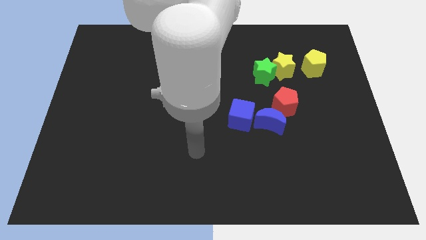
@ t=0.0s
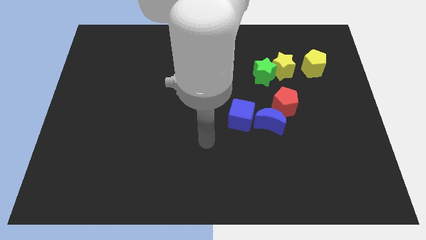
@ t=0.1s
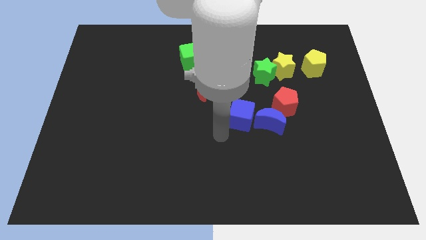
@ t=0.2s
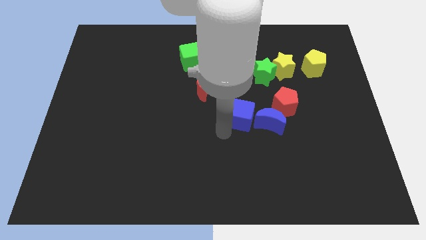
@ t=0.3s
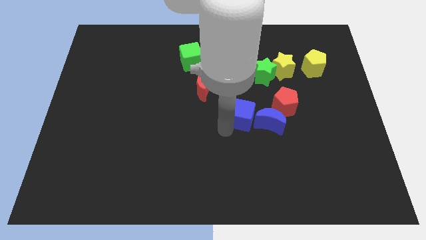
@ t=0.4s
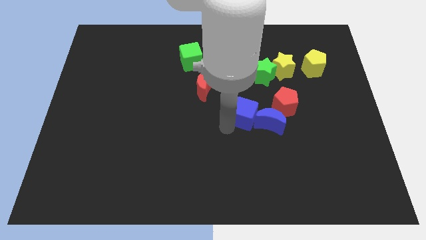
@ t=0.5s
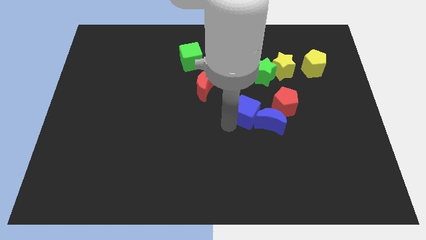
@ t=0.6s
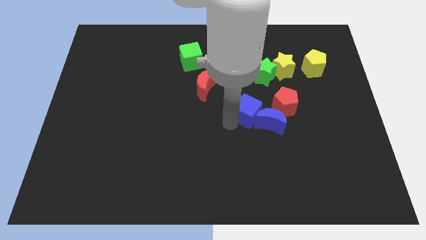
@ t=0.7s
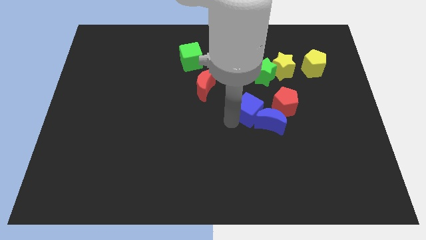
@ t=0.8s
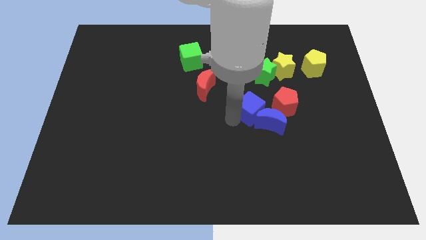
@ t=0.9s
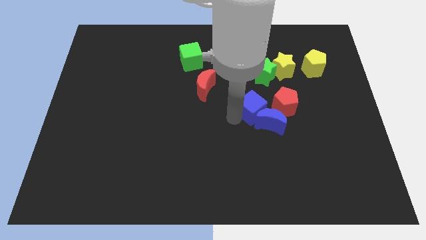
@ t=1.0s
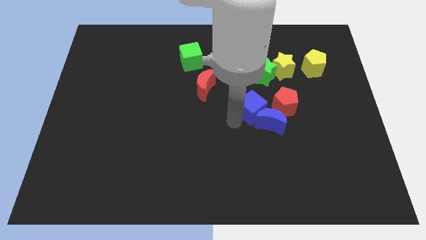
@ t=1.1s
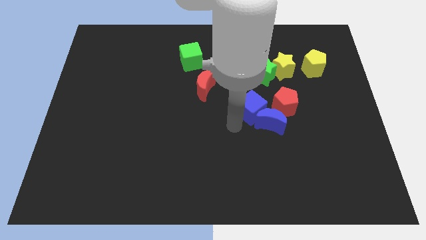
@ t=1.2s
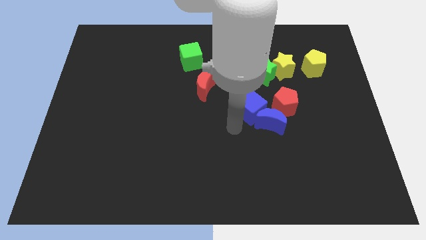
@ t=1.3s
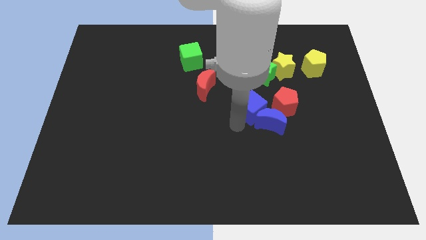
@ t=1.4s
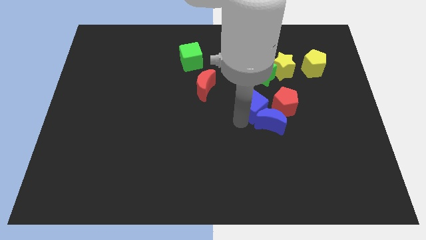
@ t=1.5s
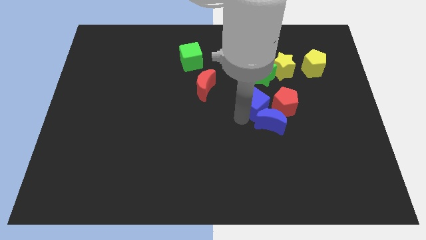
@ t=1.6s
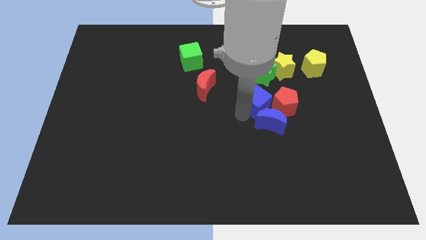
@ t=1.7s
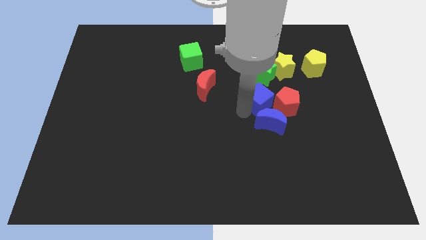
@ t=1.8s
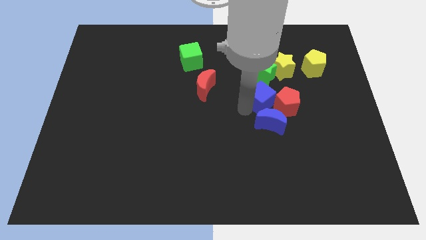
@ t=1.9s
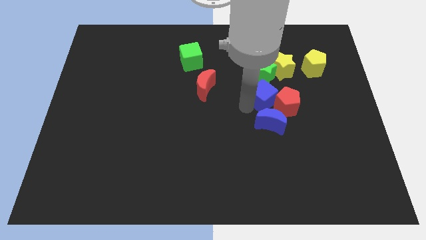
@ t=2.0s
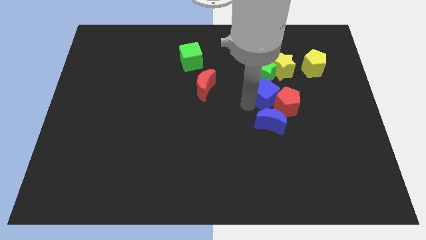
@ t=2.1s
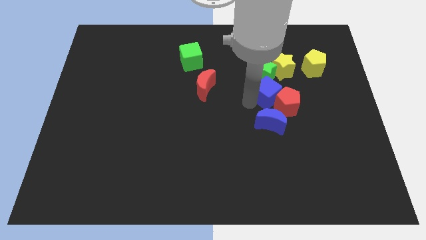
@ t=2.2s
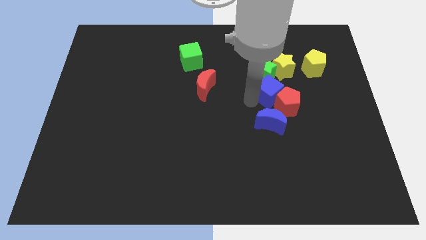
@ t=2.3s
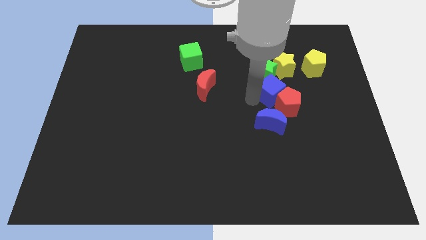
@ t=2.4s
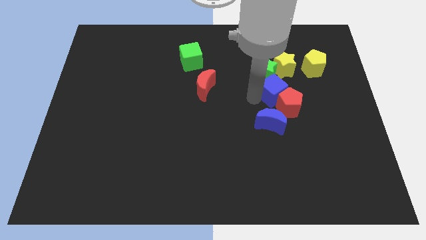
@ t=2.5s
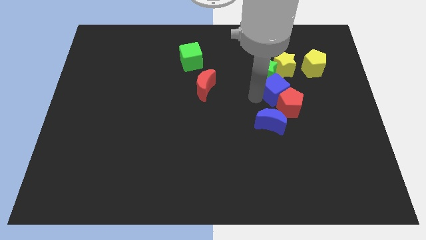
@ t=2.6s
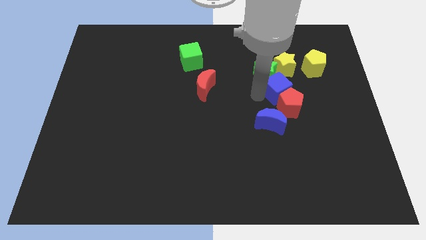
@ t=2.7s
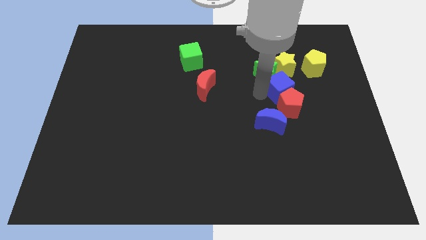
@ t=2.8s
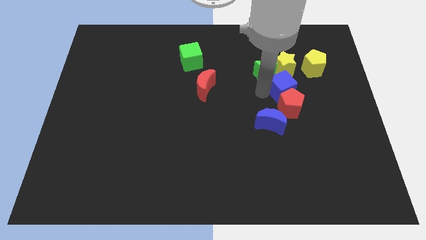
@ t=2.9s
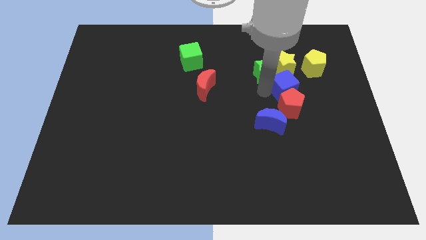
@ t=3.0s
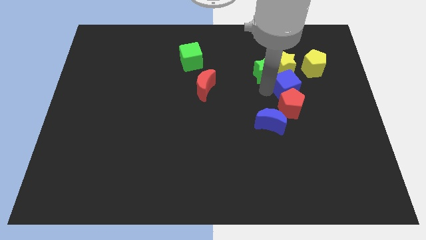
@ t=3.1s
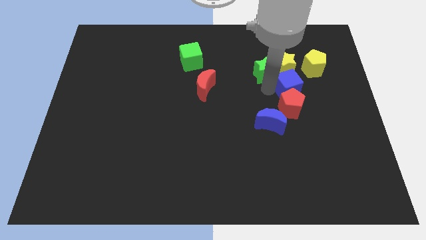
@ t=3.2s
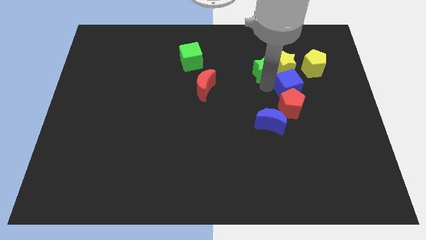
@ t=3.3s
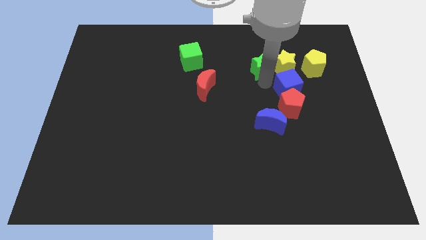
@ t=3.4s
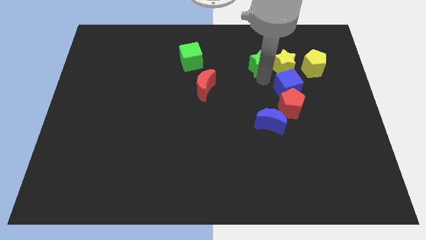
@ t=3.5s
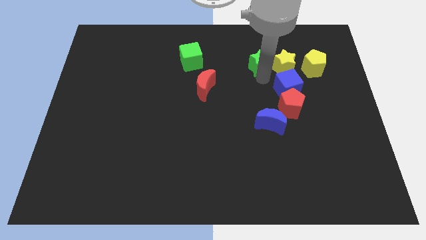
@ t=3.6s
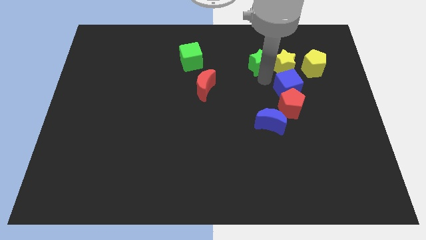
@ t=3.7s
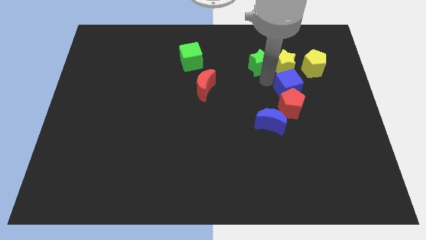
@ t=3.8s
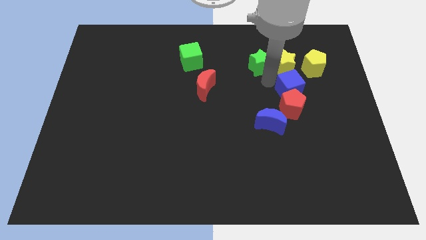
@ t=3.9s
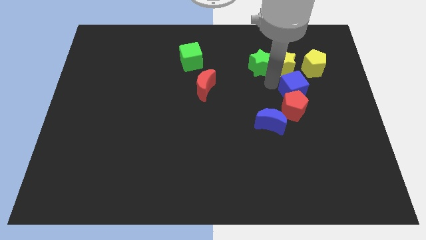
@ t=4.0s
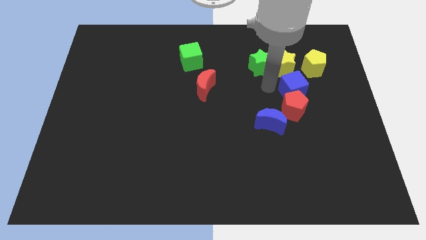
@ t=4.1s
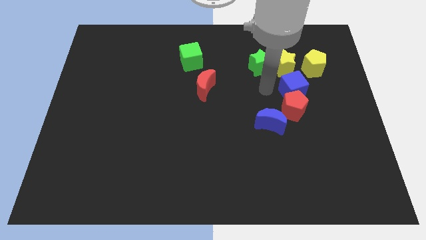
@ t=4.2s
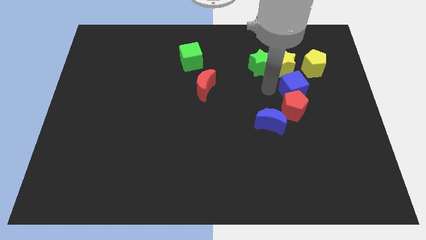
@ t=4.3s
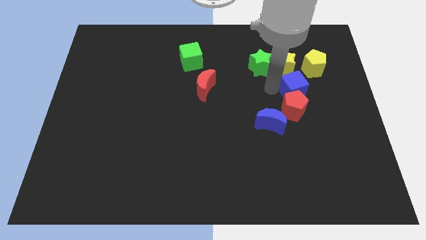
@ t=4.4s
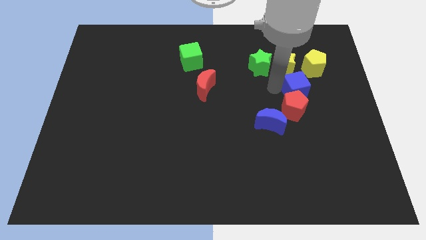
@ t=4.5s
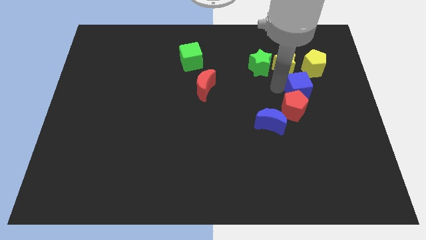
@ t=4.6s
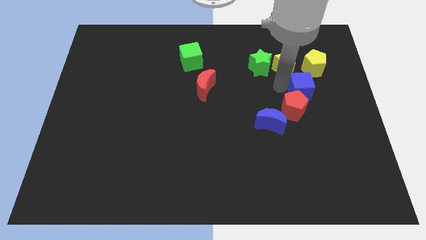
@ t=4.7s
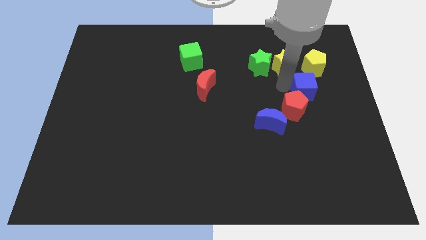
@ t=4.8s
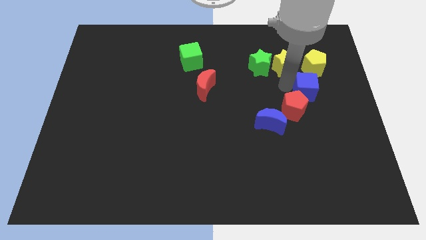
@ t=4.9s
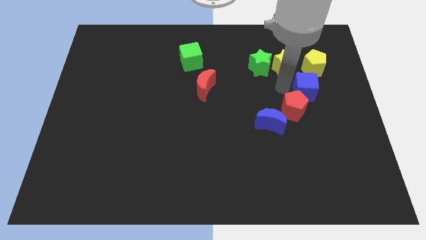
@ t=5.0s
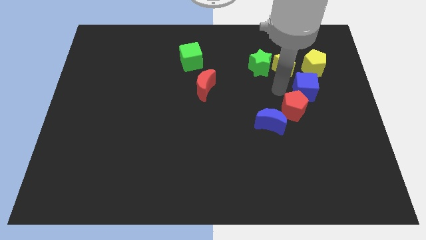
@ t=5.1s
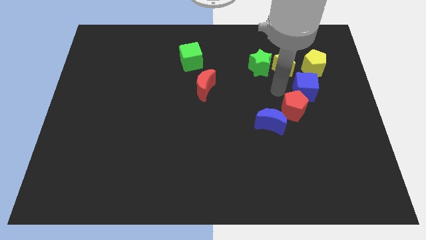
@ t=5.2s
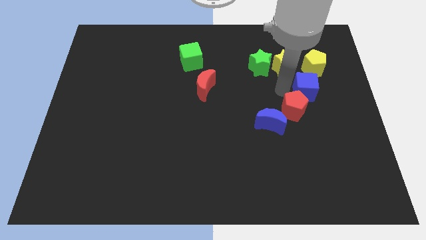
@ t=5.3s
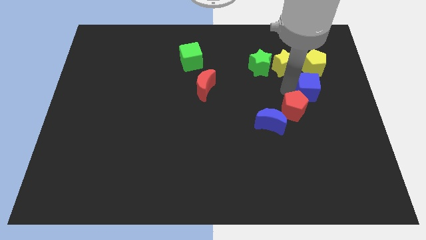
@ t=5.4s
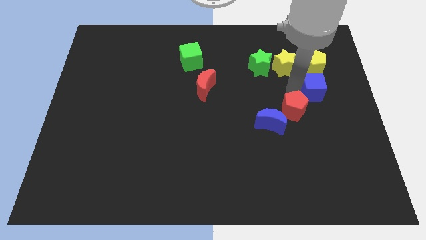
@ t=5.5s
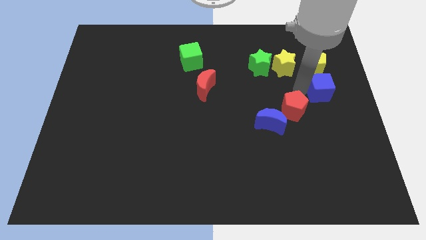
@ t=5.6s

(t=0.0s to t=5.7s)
slide the blue cube to the center right

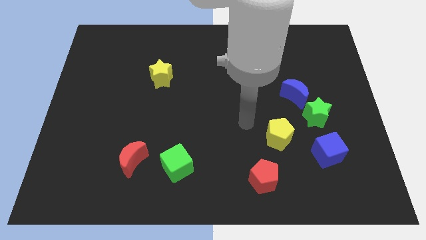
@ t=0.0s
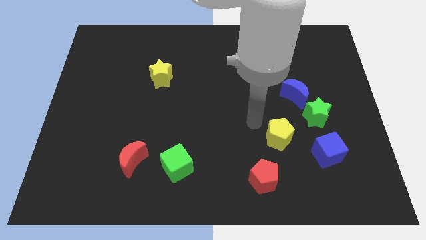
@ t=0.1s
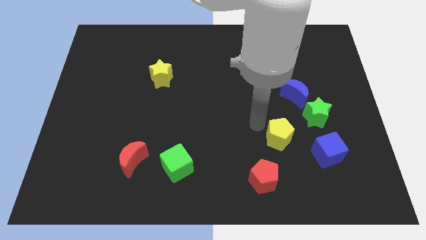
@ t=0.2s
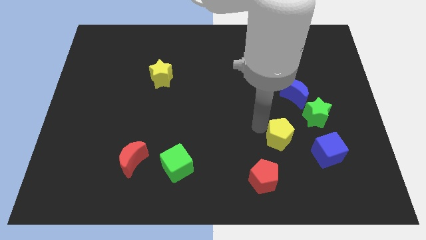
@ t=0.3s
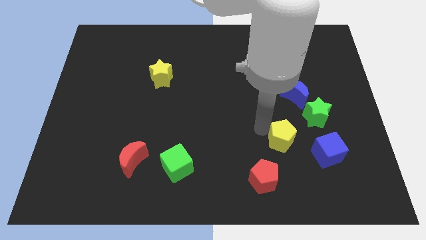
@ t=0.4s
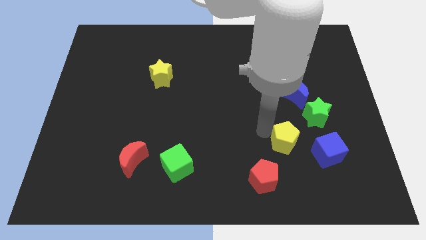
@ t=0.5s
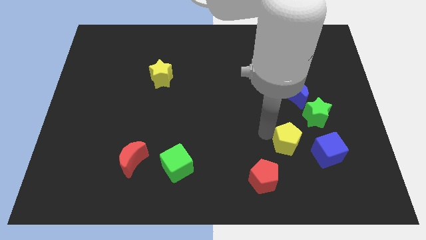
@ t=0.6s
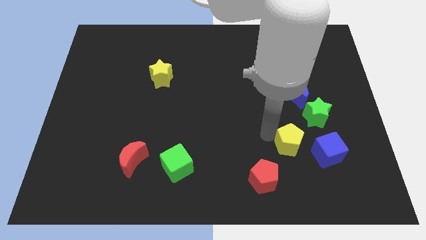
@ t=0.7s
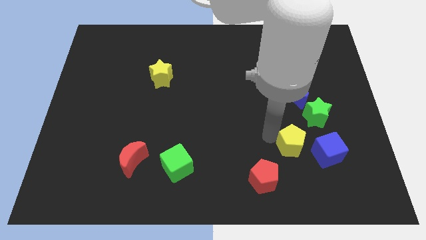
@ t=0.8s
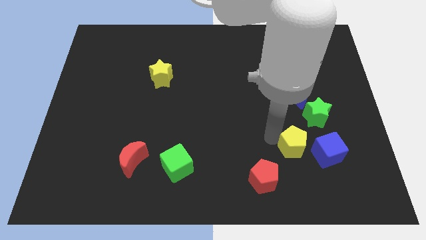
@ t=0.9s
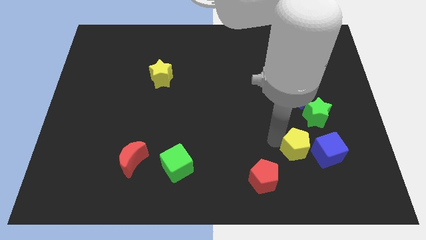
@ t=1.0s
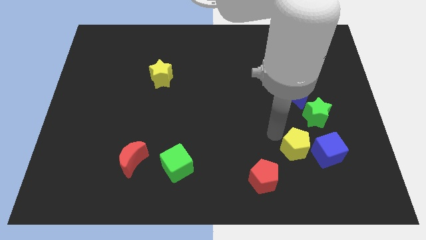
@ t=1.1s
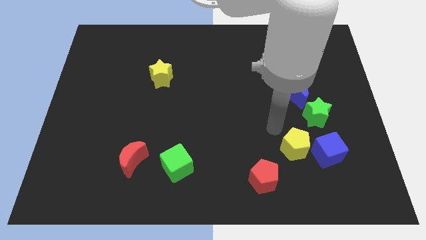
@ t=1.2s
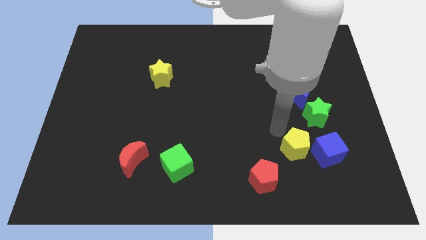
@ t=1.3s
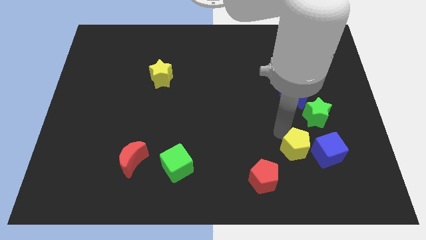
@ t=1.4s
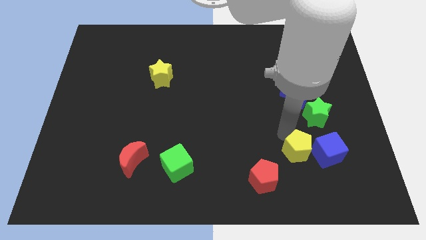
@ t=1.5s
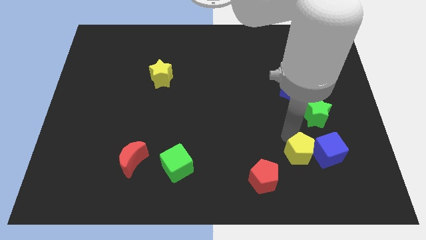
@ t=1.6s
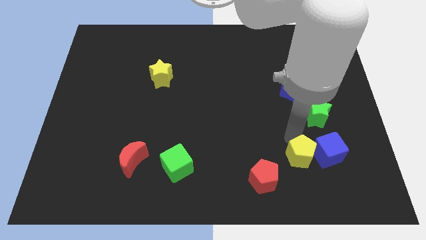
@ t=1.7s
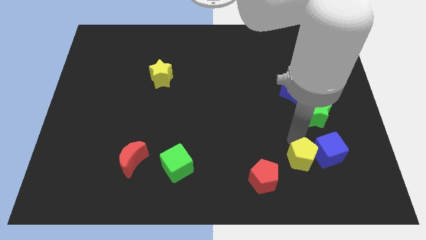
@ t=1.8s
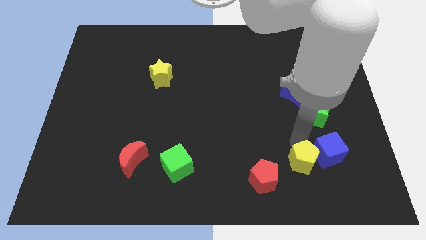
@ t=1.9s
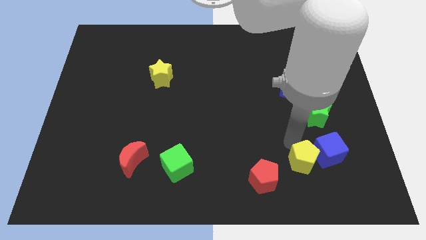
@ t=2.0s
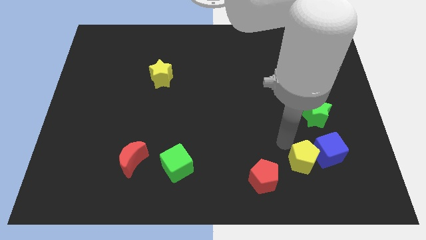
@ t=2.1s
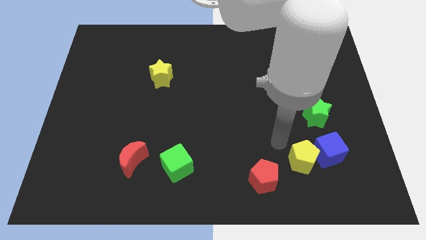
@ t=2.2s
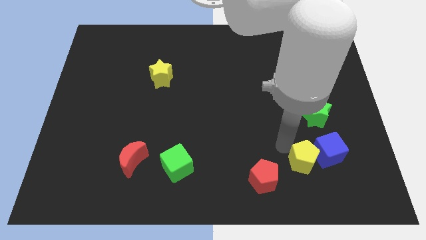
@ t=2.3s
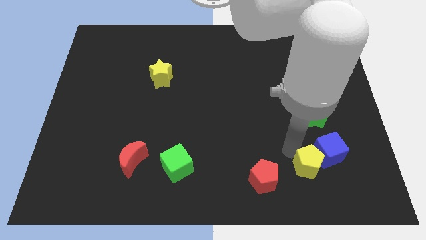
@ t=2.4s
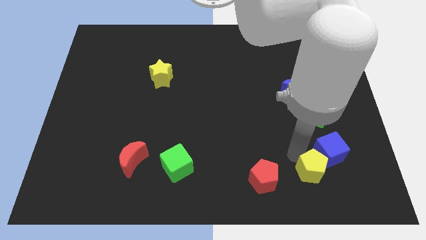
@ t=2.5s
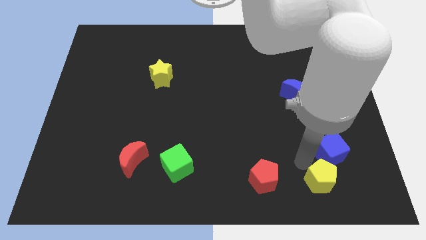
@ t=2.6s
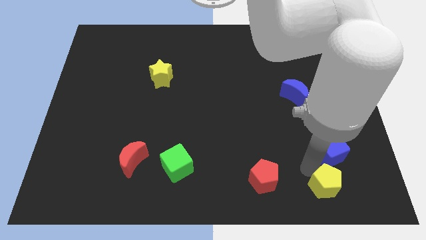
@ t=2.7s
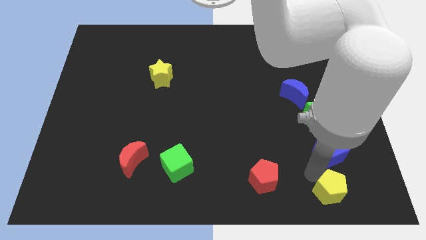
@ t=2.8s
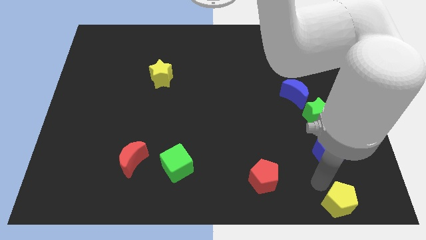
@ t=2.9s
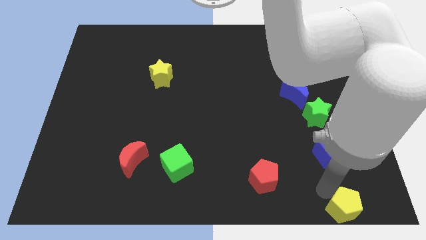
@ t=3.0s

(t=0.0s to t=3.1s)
put the yellow pentagon to the lower right corner
